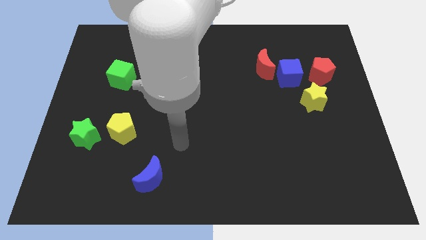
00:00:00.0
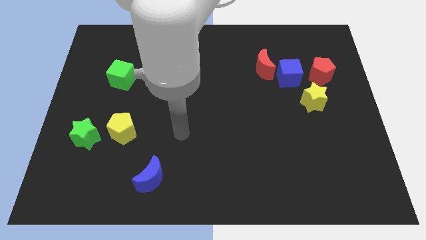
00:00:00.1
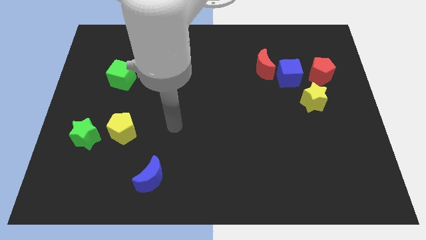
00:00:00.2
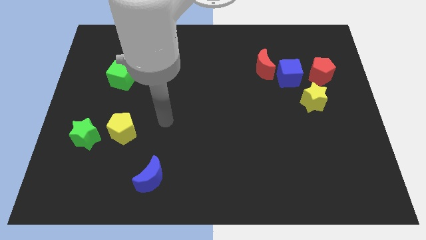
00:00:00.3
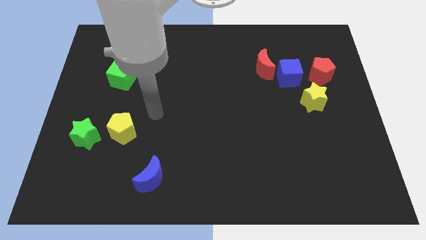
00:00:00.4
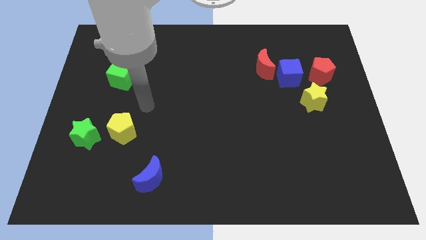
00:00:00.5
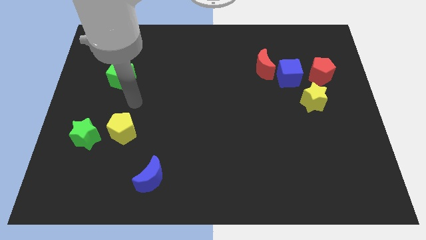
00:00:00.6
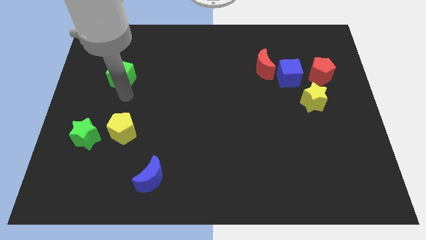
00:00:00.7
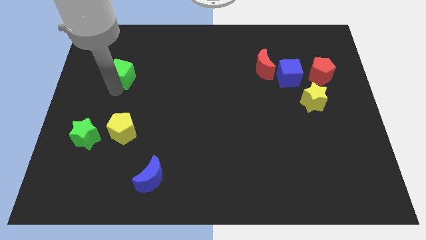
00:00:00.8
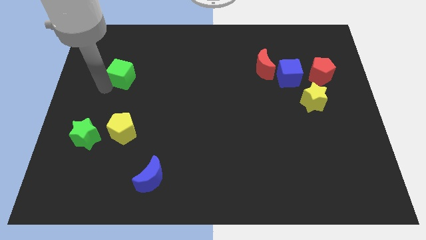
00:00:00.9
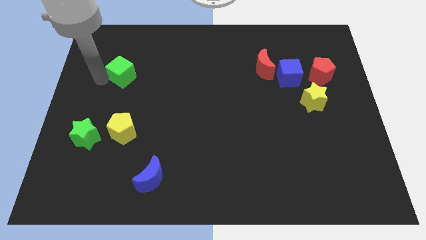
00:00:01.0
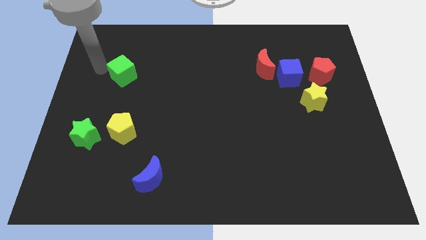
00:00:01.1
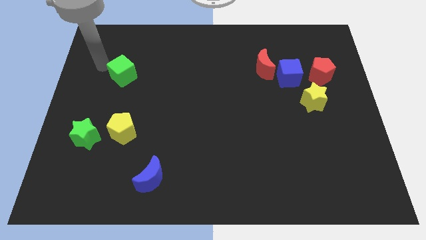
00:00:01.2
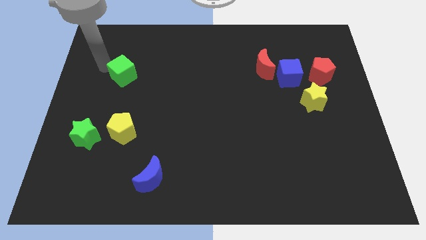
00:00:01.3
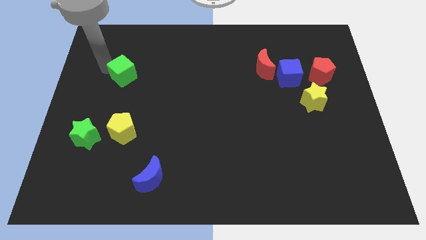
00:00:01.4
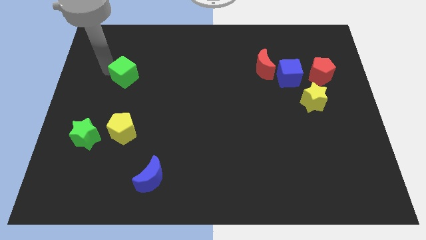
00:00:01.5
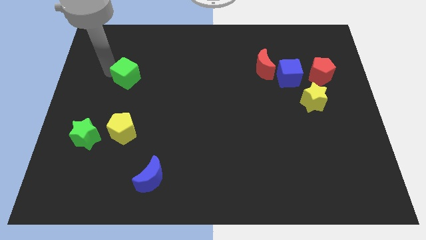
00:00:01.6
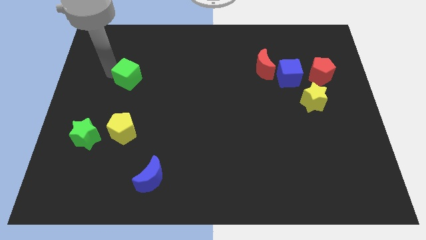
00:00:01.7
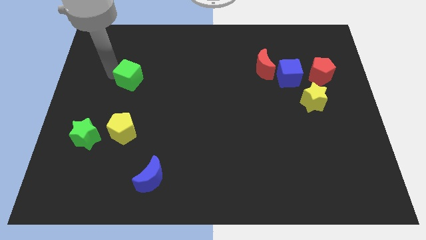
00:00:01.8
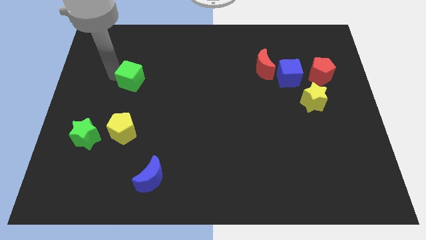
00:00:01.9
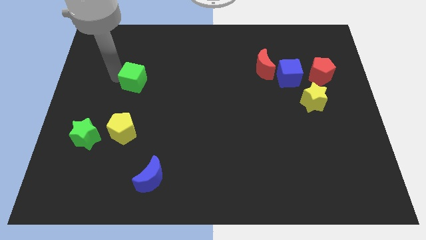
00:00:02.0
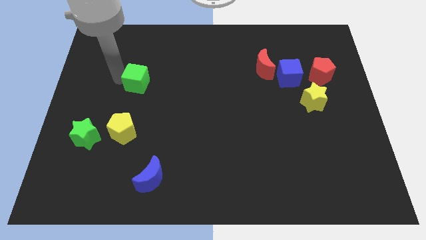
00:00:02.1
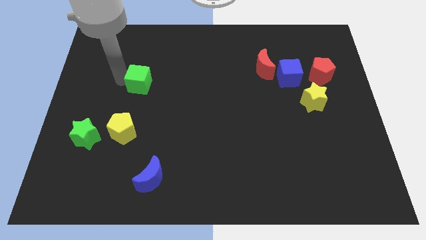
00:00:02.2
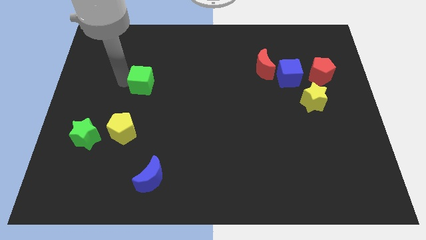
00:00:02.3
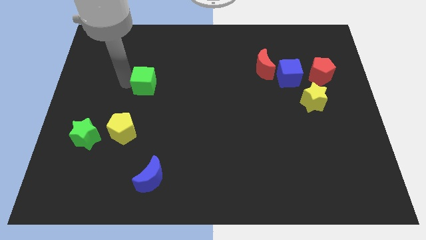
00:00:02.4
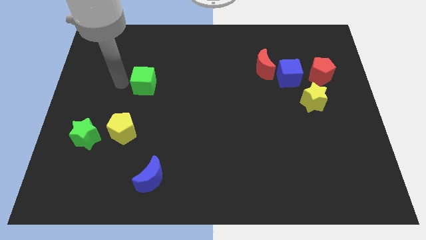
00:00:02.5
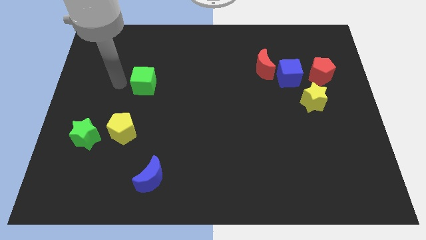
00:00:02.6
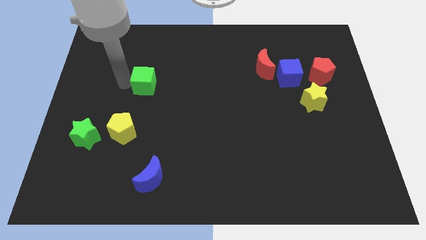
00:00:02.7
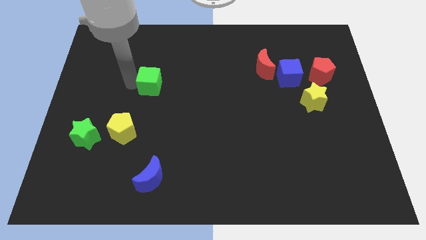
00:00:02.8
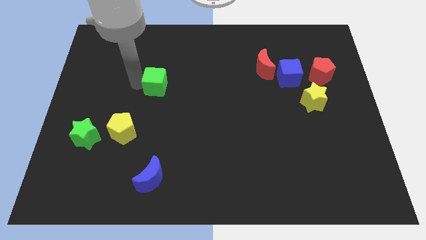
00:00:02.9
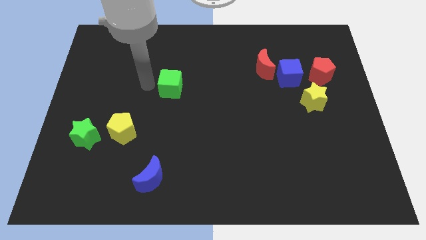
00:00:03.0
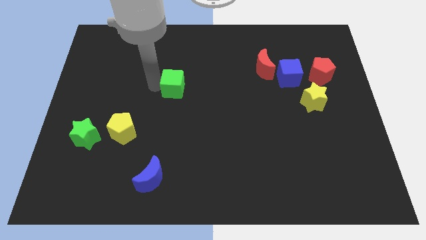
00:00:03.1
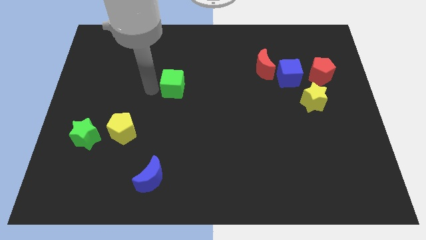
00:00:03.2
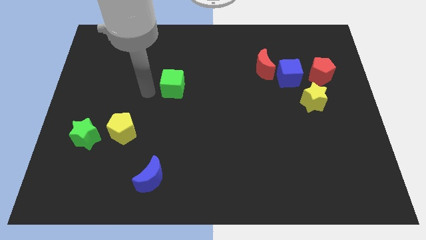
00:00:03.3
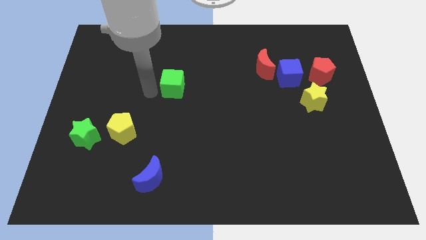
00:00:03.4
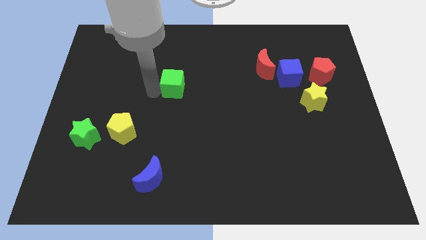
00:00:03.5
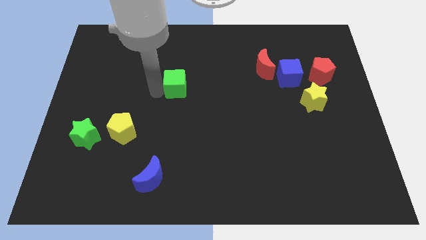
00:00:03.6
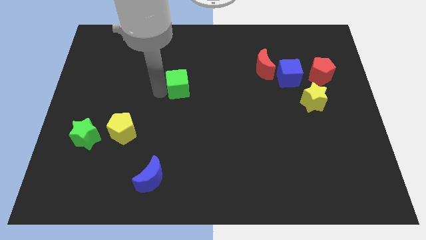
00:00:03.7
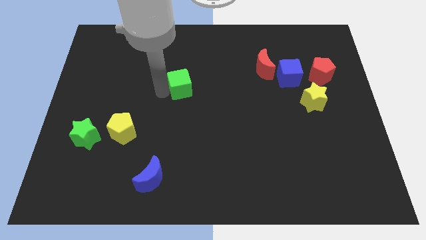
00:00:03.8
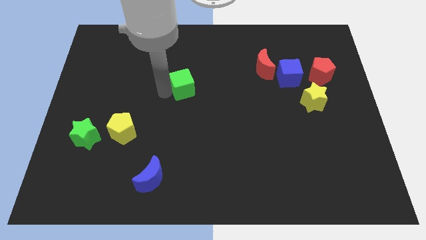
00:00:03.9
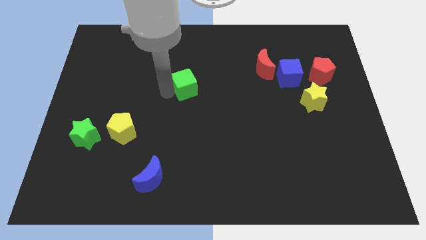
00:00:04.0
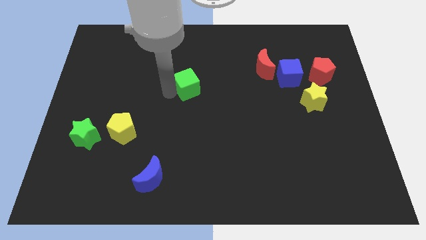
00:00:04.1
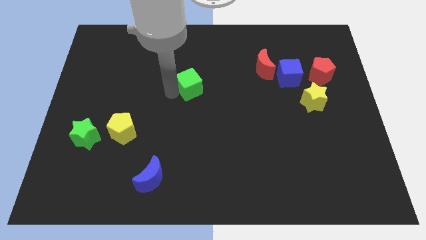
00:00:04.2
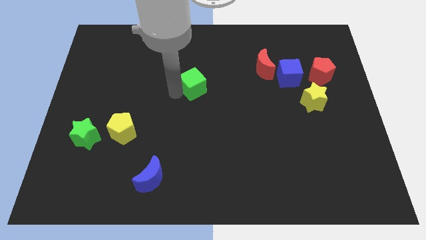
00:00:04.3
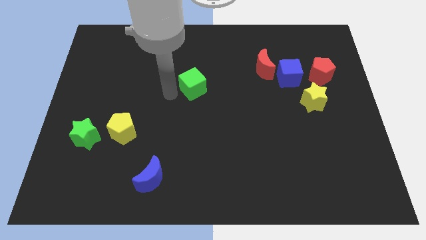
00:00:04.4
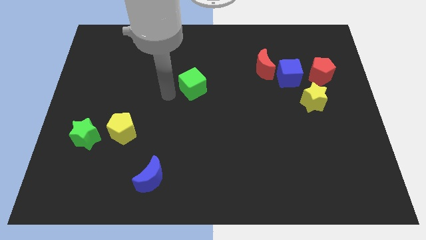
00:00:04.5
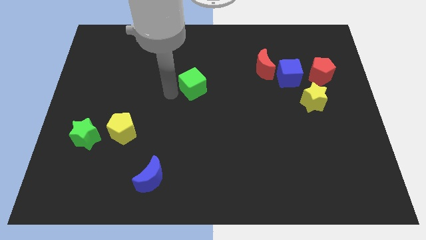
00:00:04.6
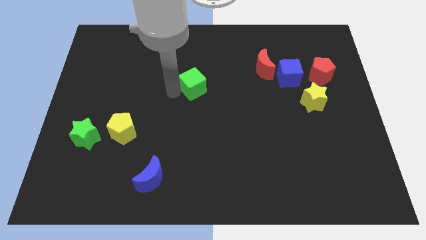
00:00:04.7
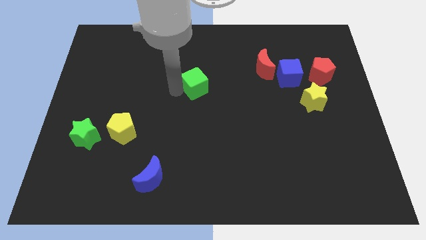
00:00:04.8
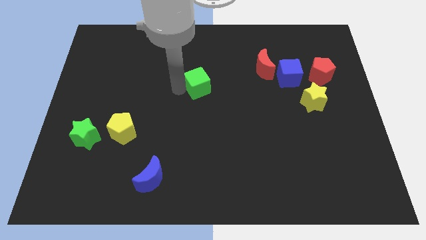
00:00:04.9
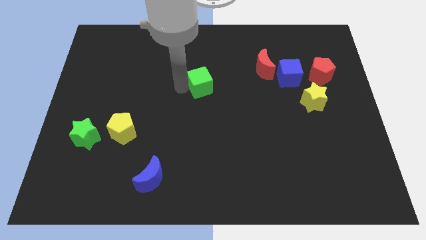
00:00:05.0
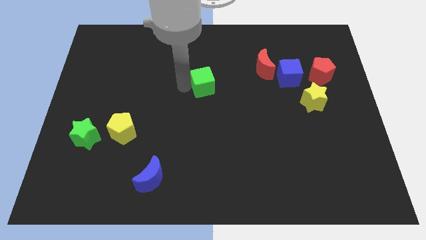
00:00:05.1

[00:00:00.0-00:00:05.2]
move the green cube to the right

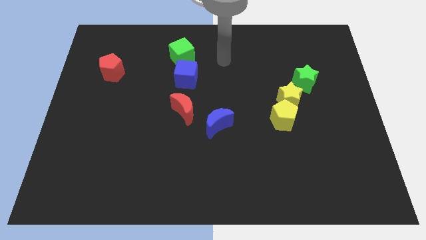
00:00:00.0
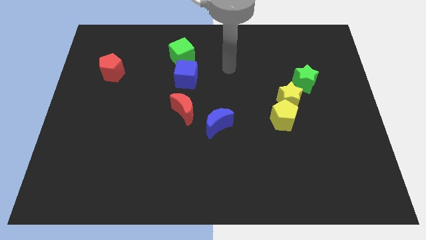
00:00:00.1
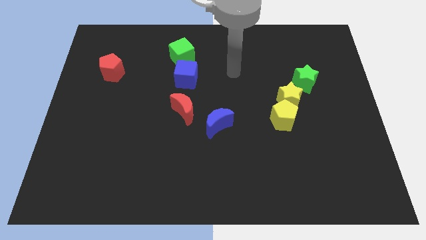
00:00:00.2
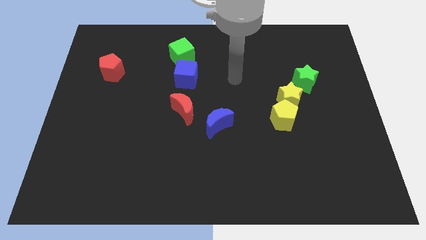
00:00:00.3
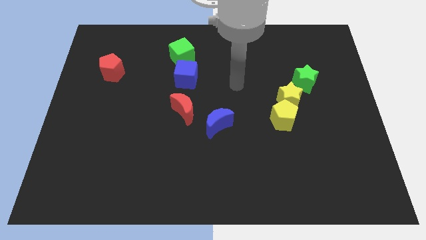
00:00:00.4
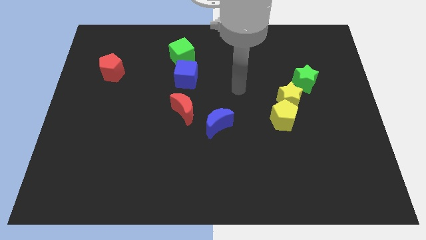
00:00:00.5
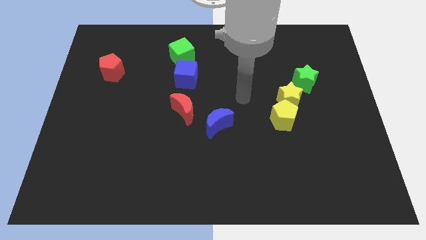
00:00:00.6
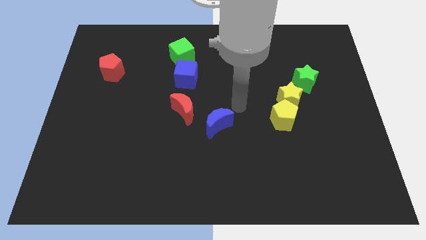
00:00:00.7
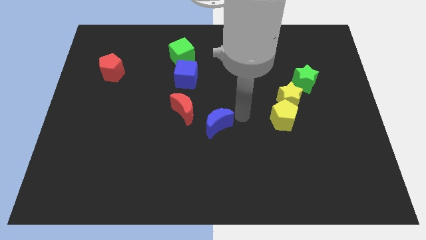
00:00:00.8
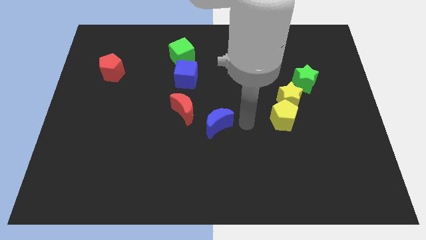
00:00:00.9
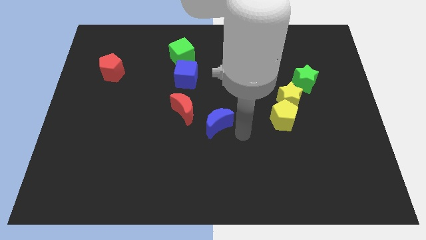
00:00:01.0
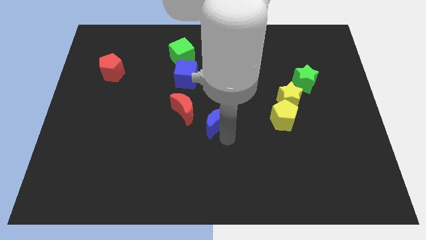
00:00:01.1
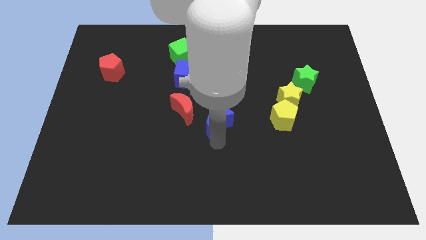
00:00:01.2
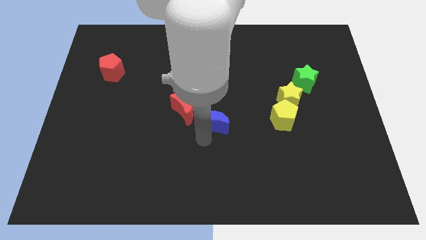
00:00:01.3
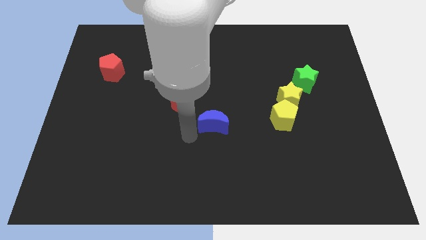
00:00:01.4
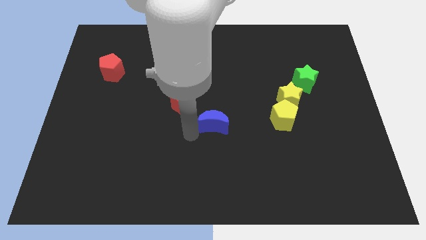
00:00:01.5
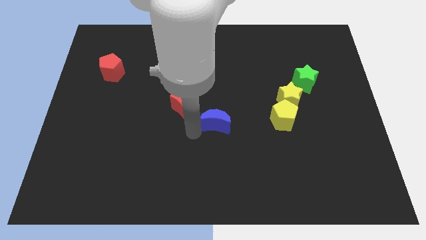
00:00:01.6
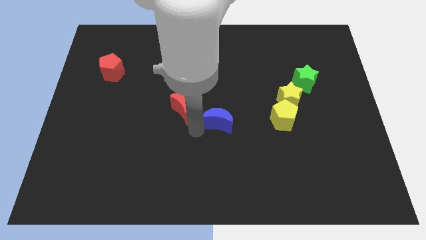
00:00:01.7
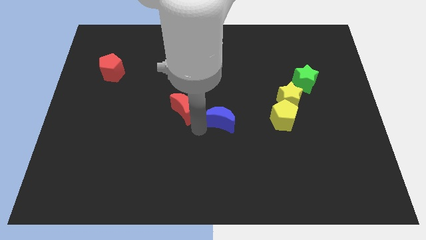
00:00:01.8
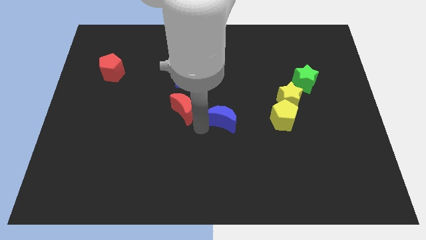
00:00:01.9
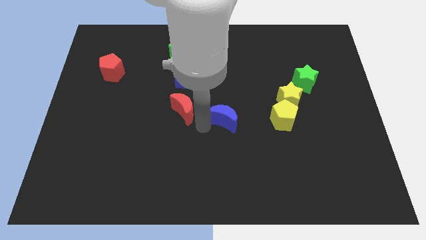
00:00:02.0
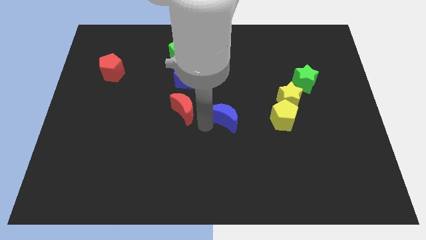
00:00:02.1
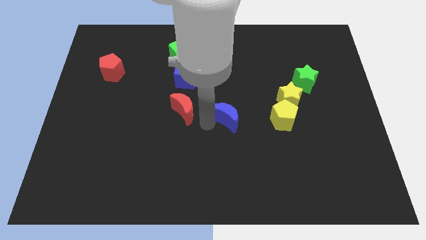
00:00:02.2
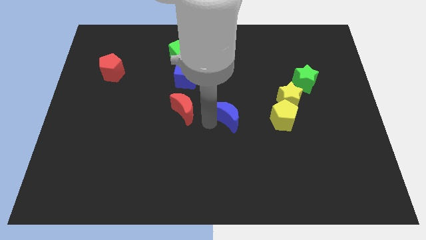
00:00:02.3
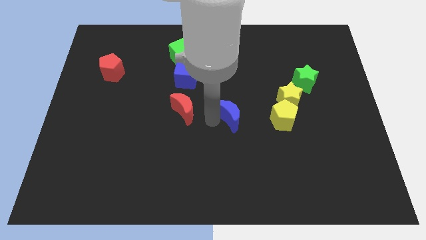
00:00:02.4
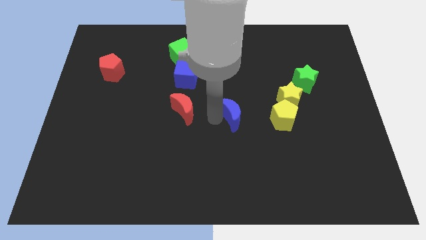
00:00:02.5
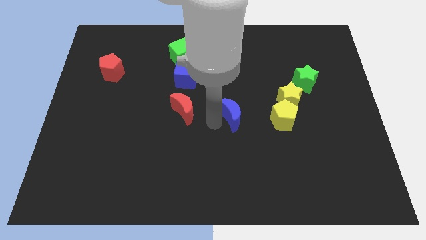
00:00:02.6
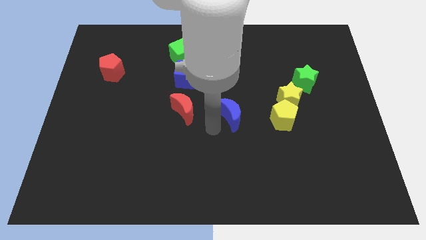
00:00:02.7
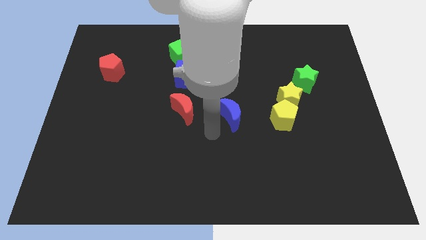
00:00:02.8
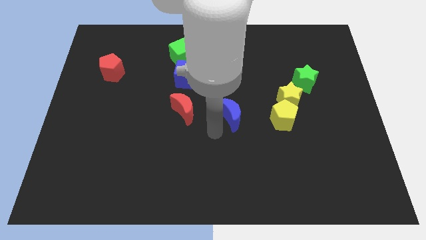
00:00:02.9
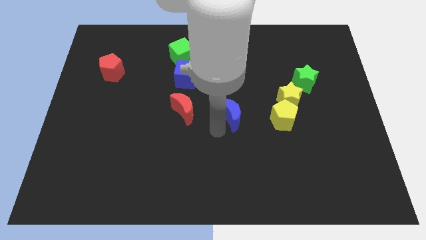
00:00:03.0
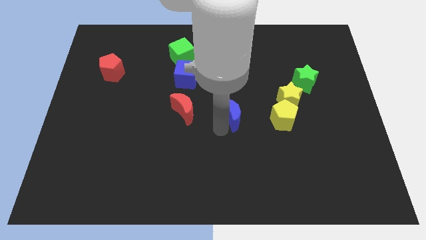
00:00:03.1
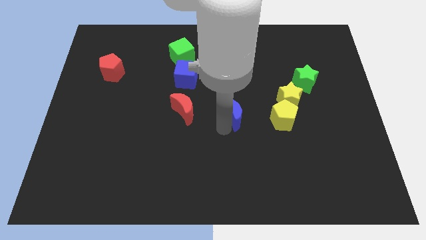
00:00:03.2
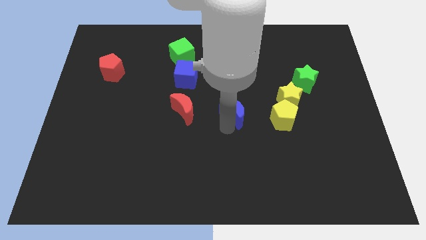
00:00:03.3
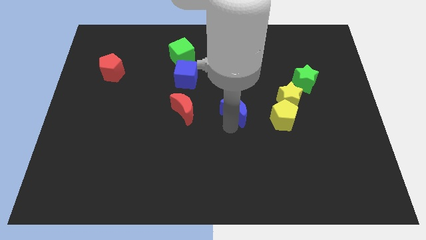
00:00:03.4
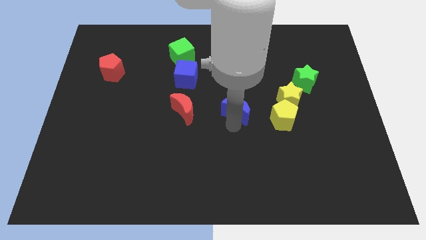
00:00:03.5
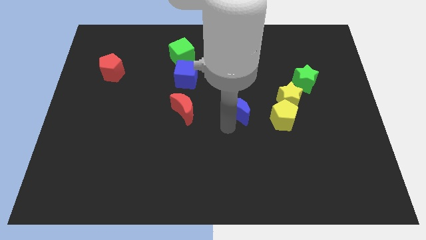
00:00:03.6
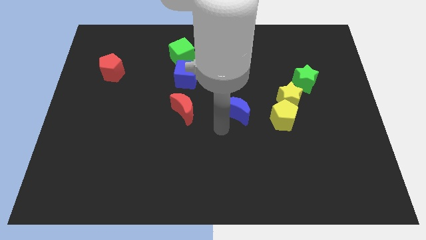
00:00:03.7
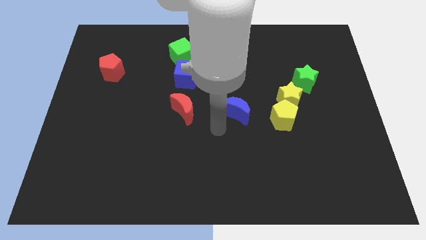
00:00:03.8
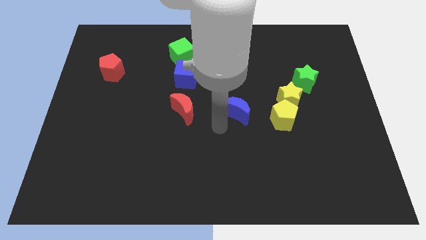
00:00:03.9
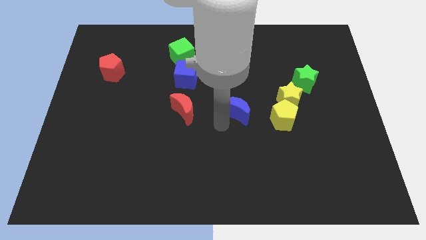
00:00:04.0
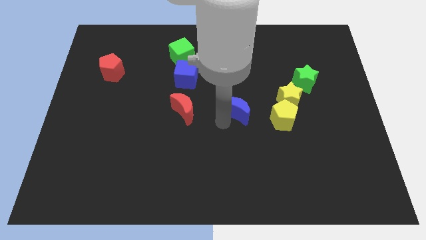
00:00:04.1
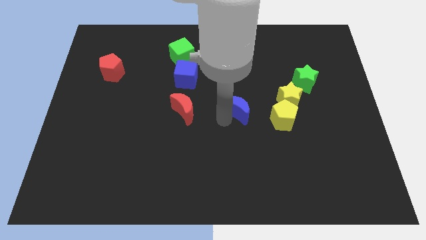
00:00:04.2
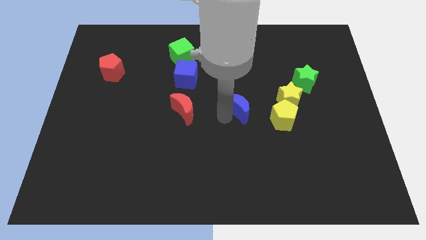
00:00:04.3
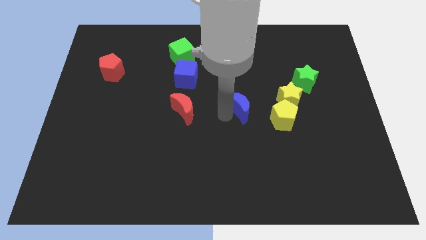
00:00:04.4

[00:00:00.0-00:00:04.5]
push the blue moon upwards and then right a little
